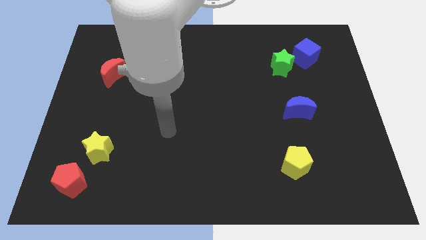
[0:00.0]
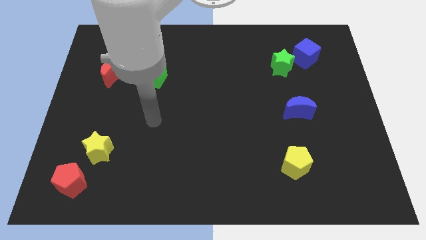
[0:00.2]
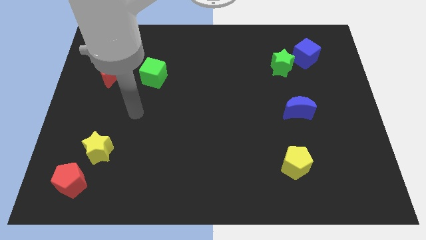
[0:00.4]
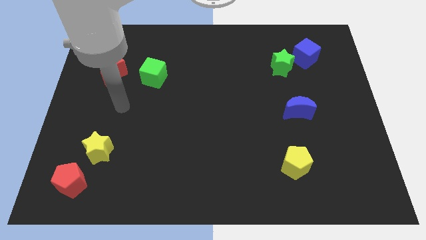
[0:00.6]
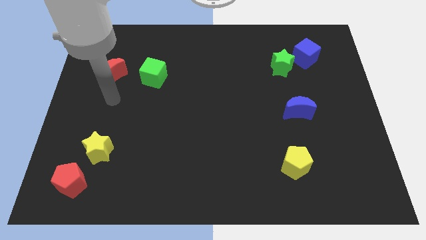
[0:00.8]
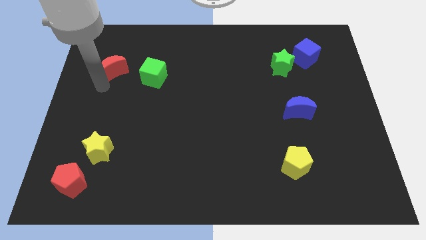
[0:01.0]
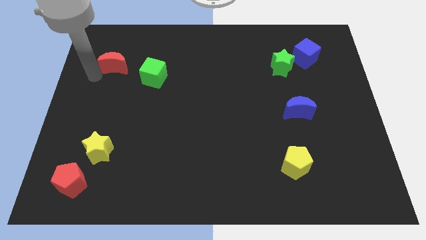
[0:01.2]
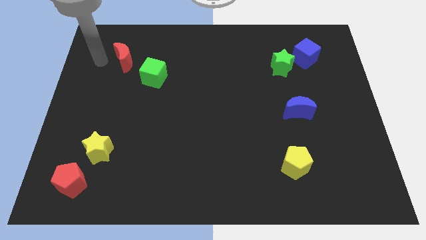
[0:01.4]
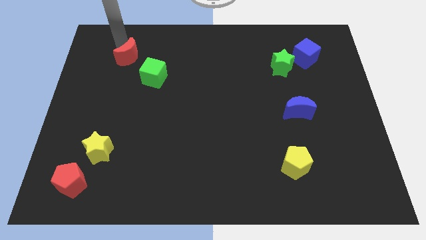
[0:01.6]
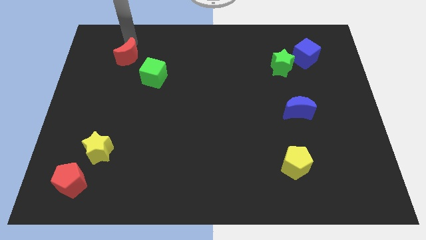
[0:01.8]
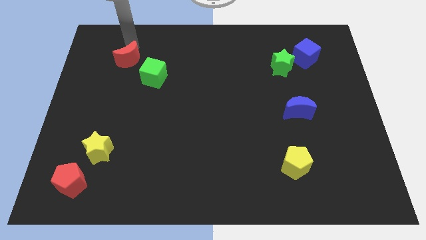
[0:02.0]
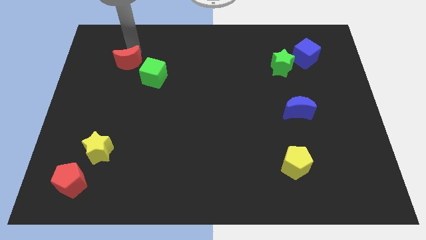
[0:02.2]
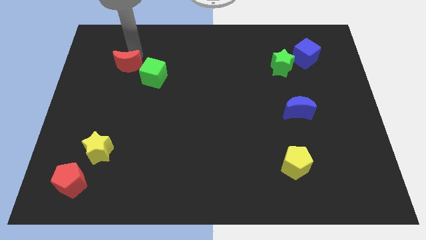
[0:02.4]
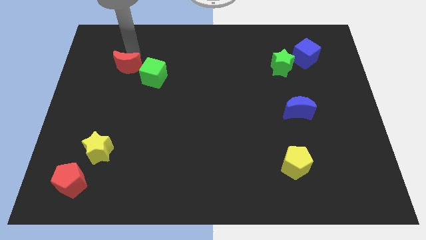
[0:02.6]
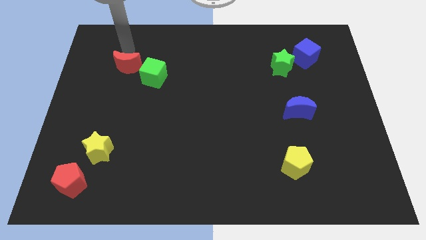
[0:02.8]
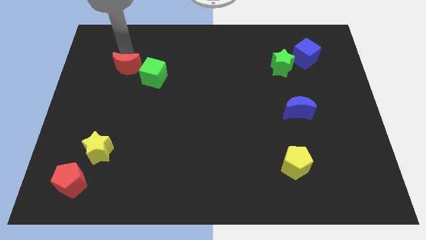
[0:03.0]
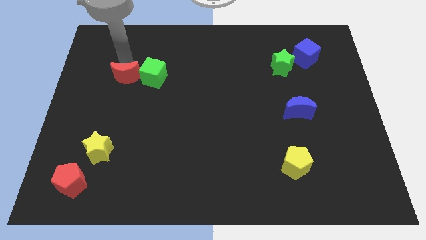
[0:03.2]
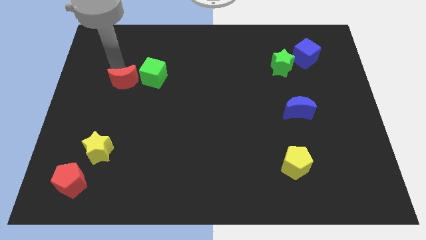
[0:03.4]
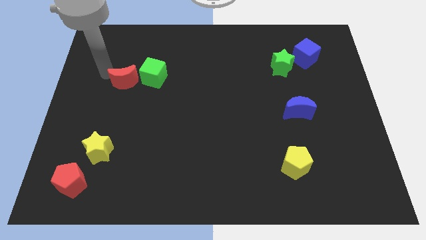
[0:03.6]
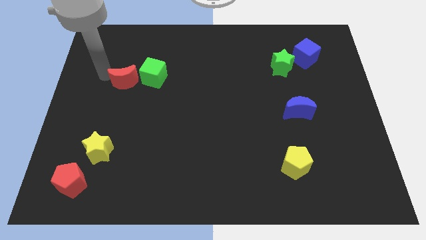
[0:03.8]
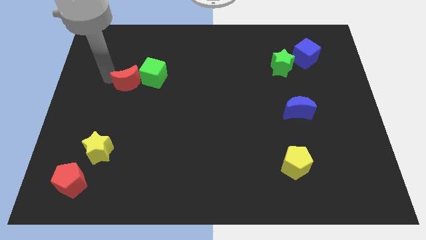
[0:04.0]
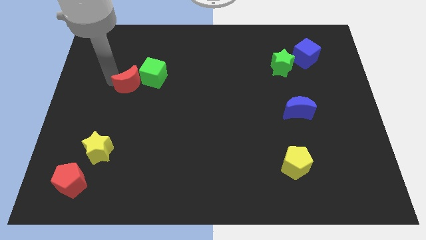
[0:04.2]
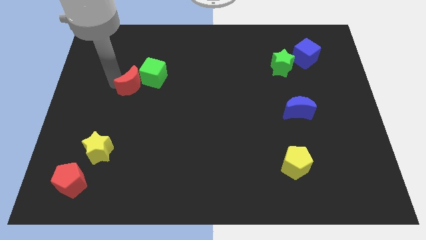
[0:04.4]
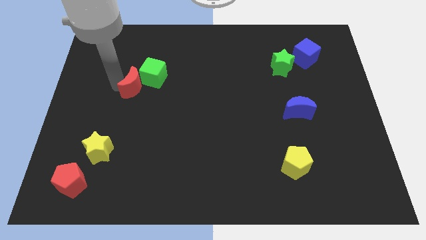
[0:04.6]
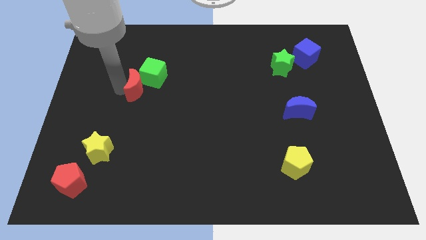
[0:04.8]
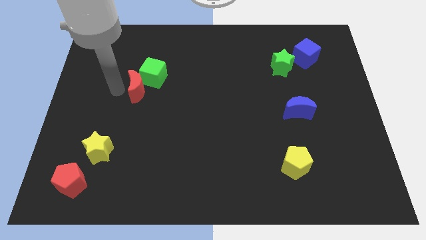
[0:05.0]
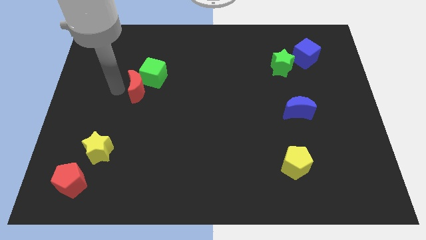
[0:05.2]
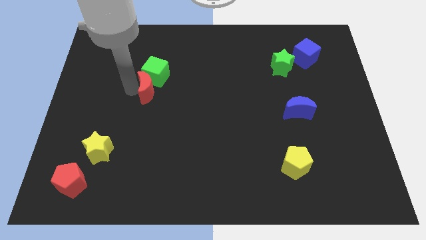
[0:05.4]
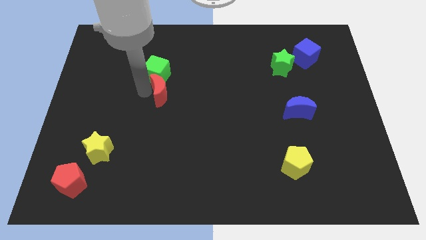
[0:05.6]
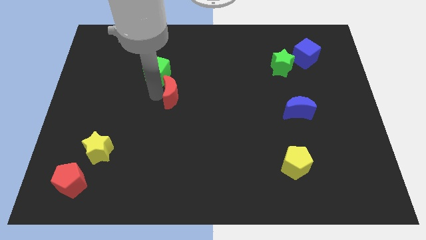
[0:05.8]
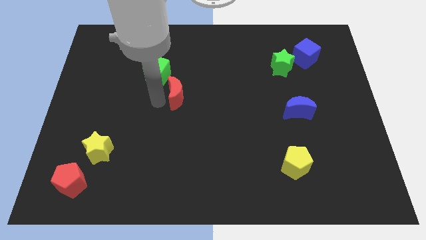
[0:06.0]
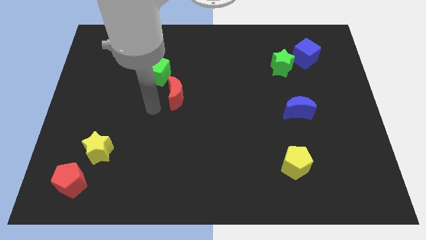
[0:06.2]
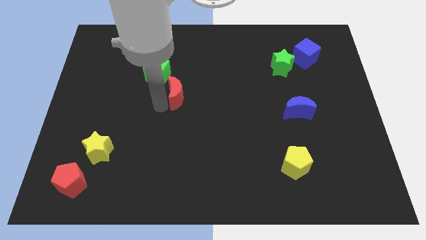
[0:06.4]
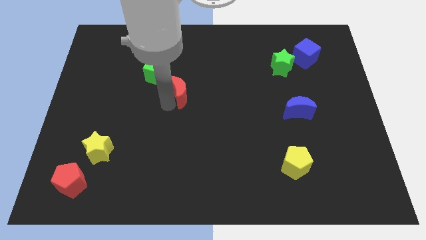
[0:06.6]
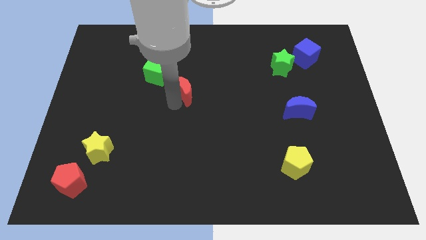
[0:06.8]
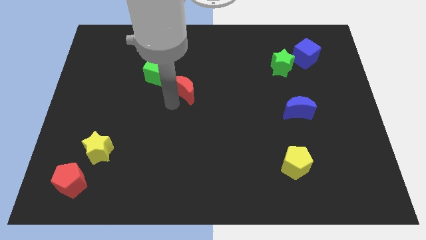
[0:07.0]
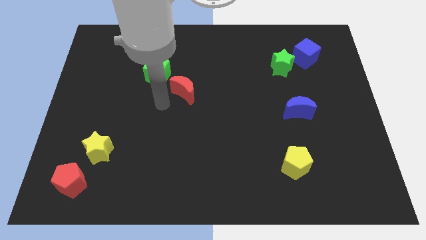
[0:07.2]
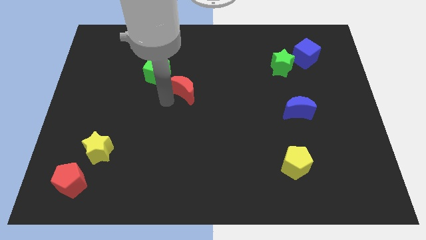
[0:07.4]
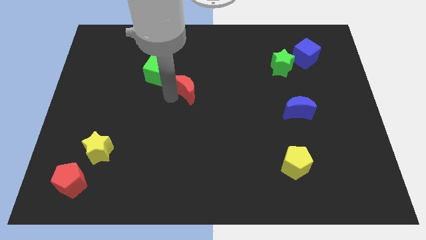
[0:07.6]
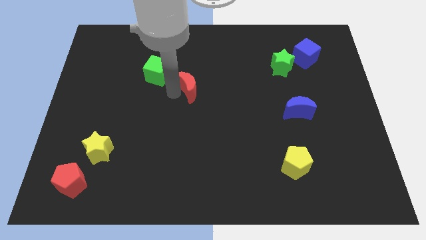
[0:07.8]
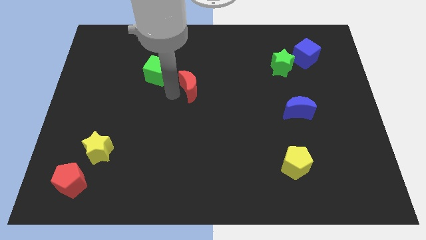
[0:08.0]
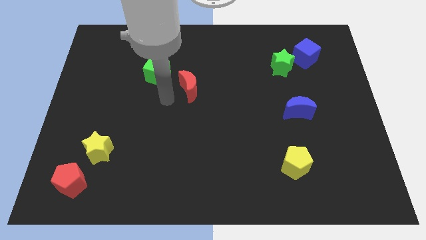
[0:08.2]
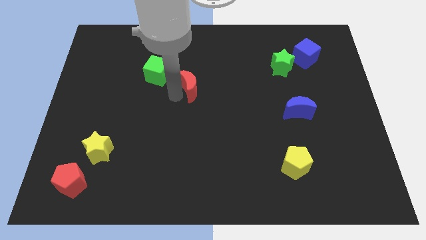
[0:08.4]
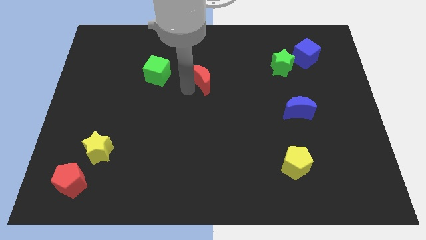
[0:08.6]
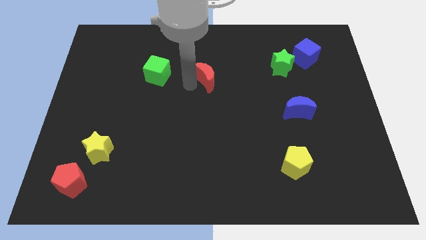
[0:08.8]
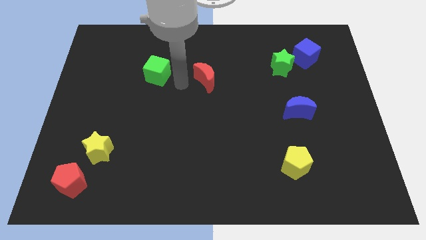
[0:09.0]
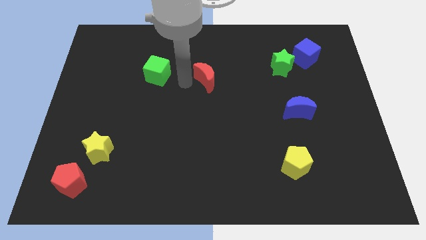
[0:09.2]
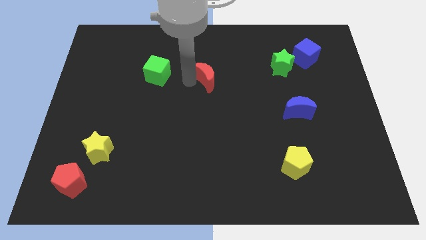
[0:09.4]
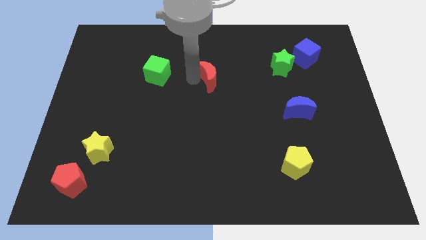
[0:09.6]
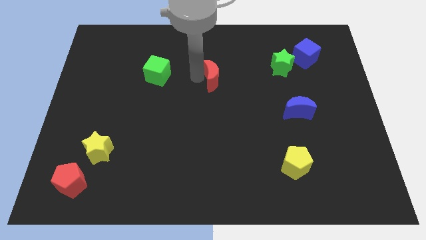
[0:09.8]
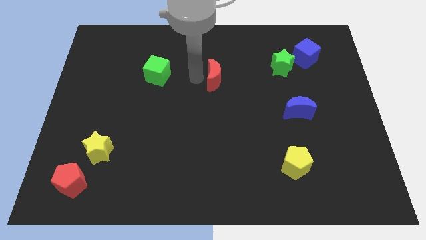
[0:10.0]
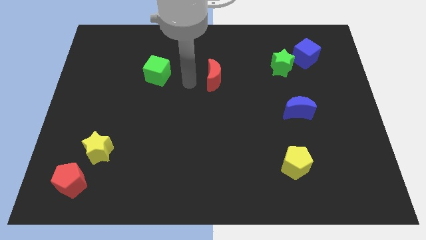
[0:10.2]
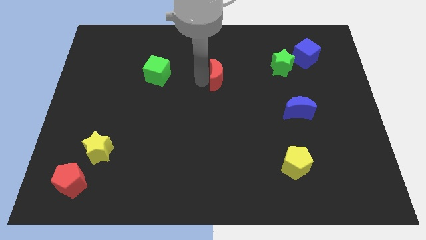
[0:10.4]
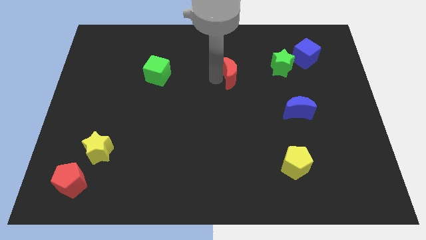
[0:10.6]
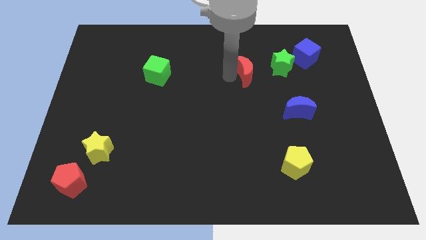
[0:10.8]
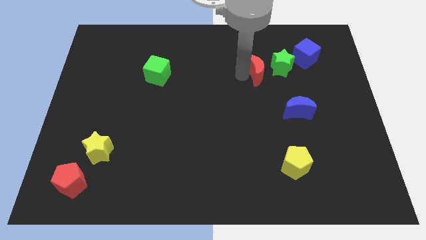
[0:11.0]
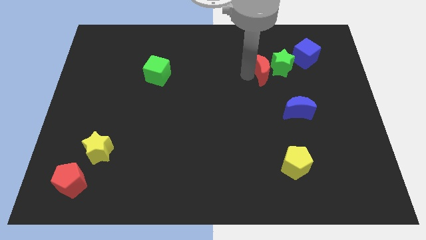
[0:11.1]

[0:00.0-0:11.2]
slide the red moon to the green star

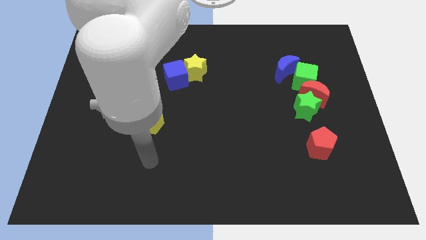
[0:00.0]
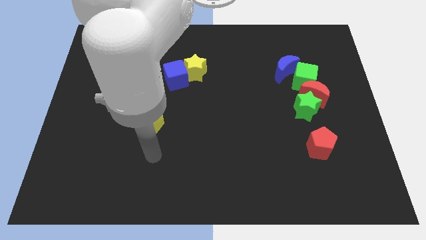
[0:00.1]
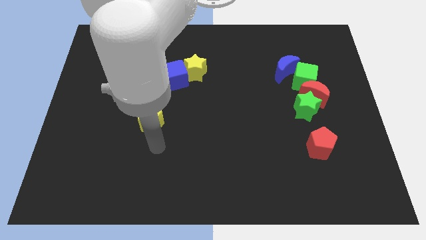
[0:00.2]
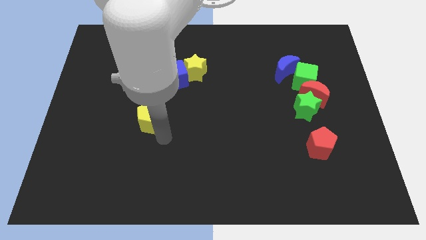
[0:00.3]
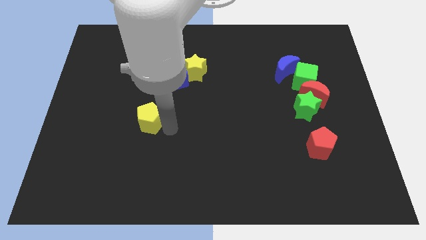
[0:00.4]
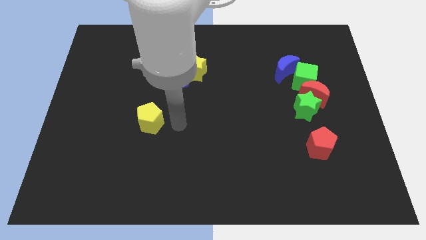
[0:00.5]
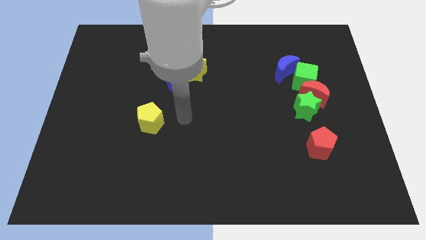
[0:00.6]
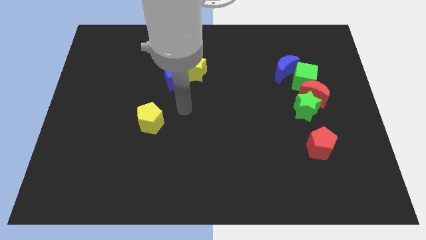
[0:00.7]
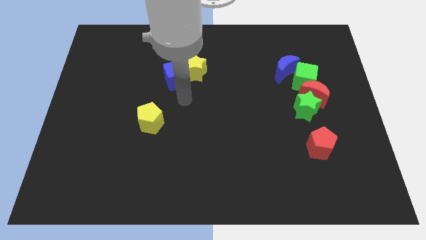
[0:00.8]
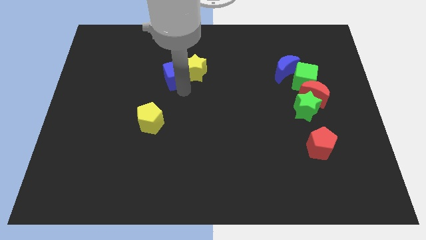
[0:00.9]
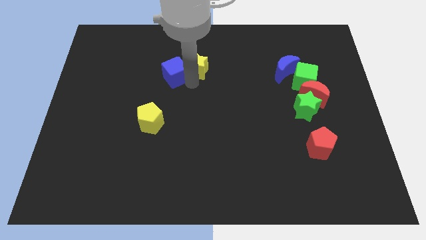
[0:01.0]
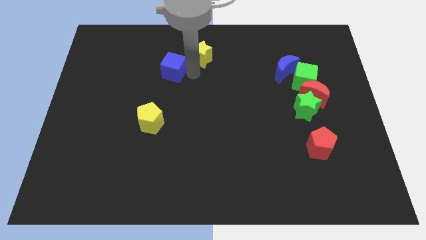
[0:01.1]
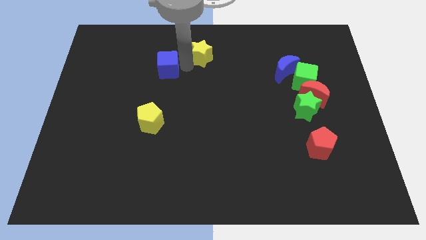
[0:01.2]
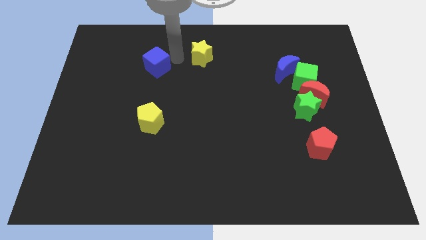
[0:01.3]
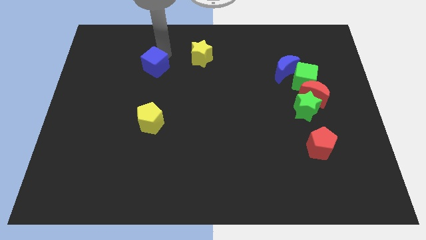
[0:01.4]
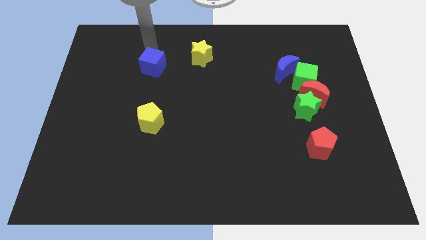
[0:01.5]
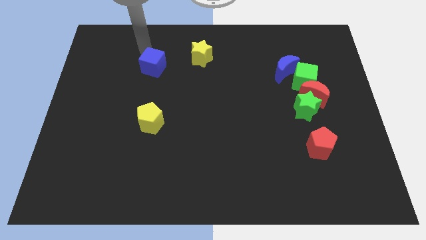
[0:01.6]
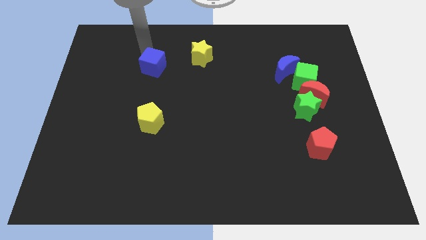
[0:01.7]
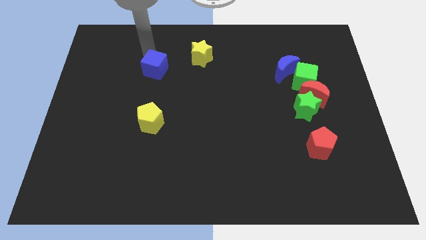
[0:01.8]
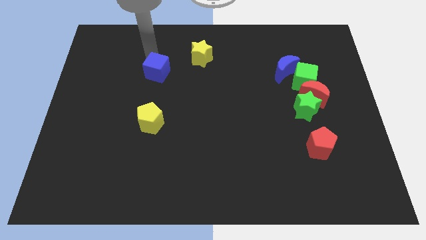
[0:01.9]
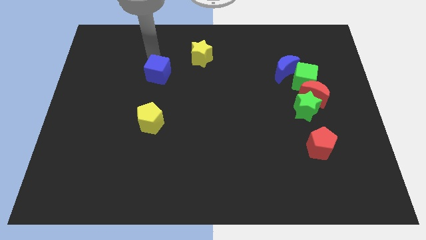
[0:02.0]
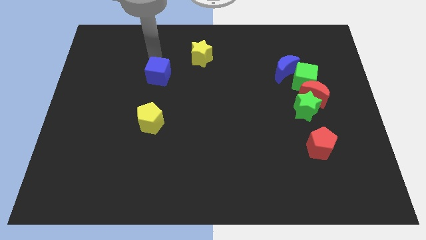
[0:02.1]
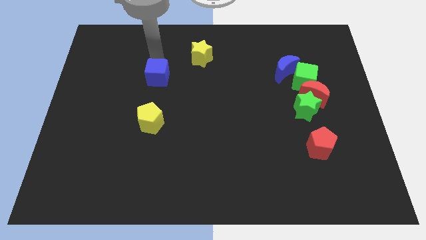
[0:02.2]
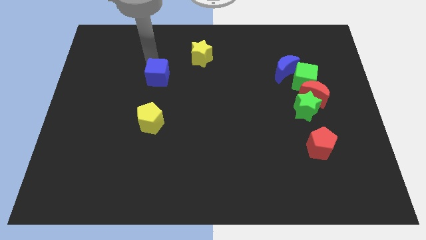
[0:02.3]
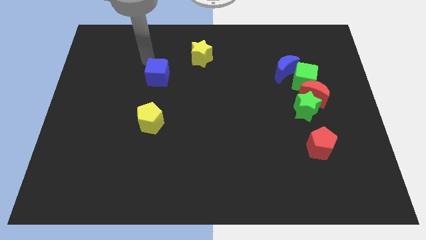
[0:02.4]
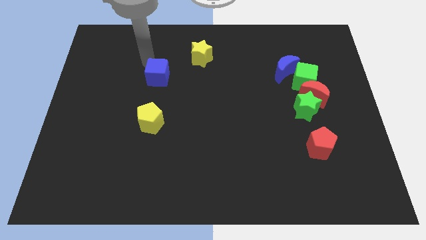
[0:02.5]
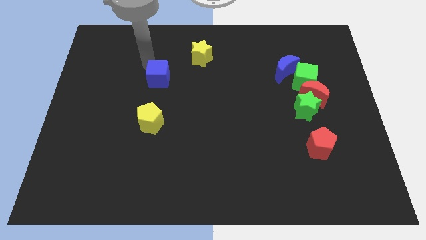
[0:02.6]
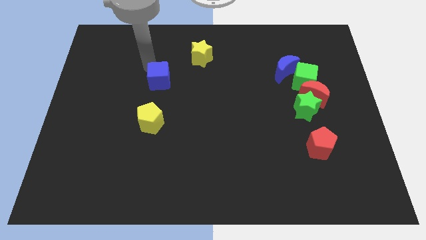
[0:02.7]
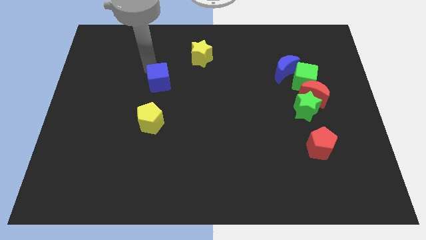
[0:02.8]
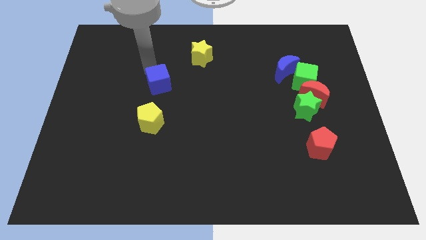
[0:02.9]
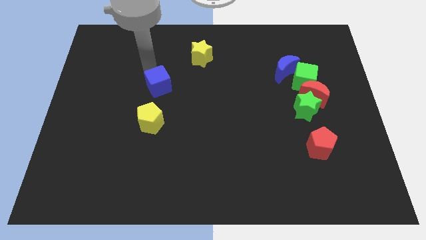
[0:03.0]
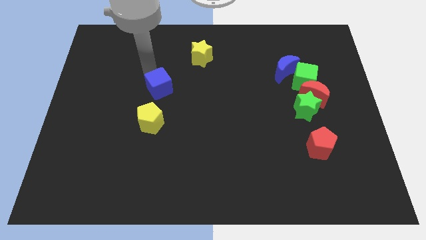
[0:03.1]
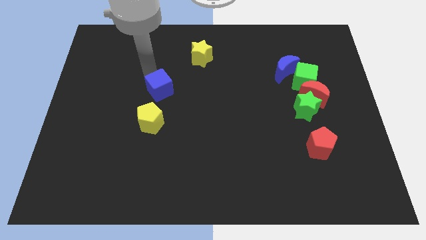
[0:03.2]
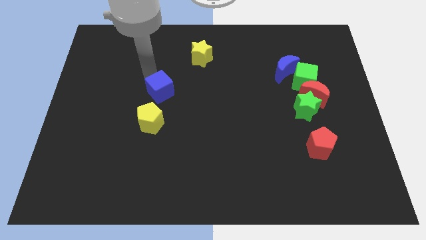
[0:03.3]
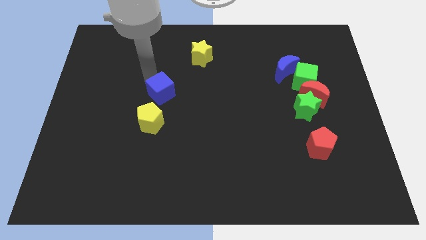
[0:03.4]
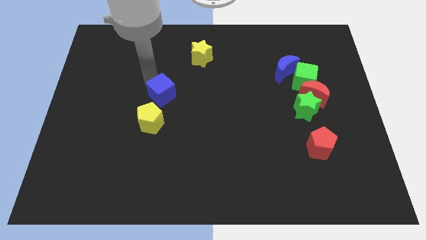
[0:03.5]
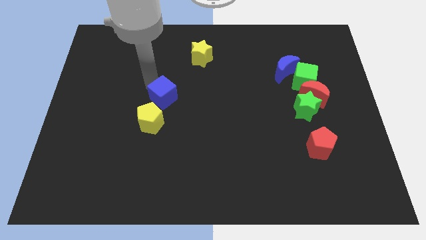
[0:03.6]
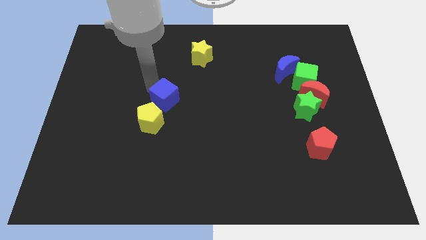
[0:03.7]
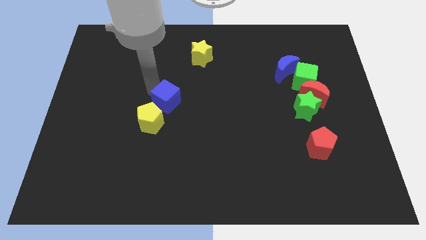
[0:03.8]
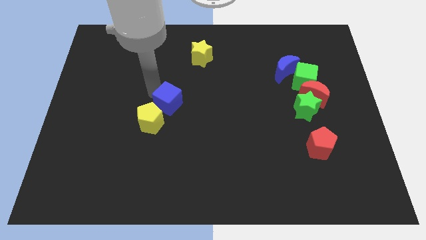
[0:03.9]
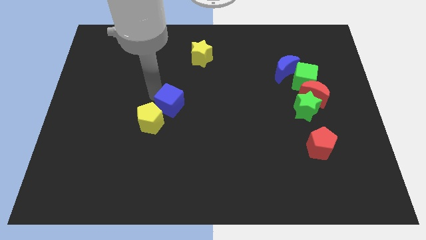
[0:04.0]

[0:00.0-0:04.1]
push the blue cube towards the yellow pentagon
